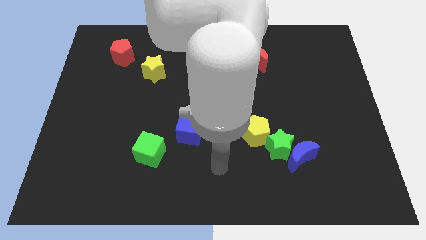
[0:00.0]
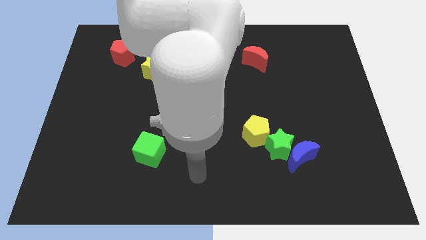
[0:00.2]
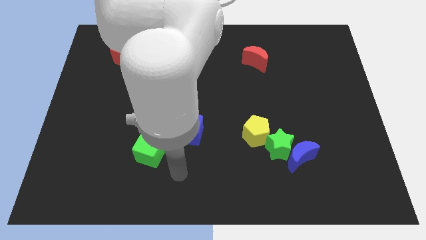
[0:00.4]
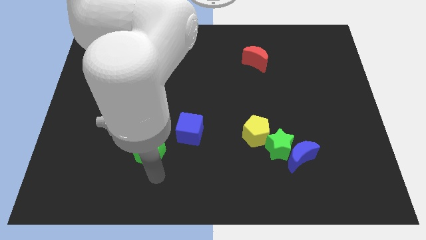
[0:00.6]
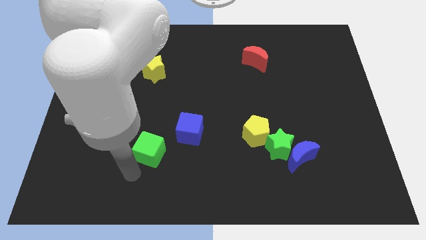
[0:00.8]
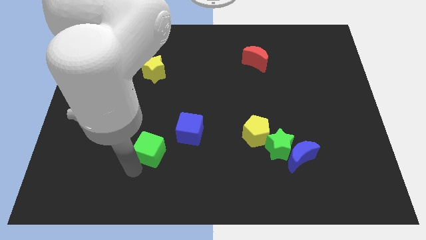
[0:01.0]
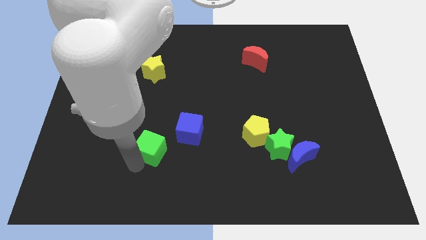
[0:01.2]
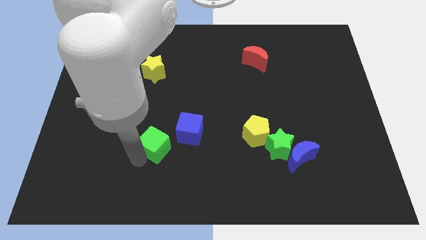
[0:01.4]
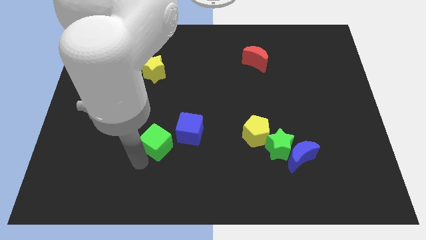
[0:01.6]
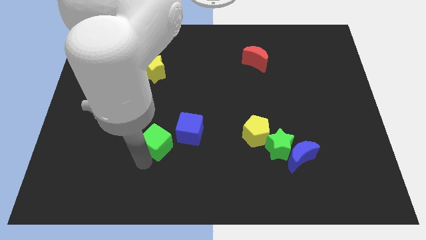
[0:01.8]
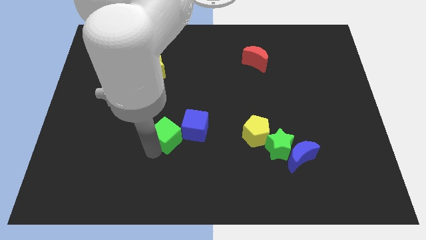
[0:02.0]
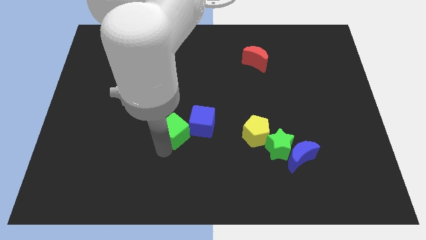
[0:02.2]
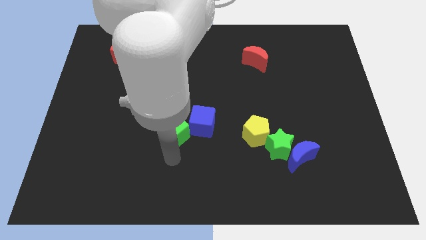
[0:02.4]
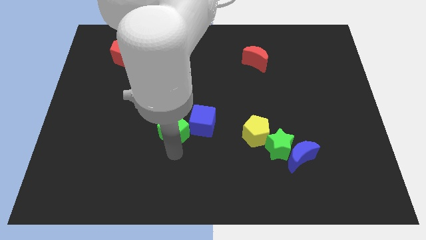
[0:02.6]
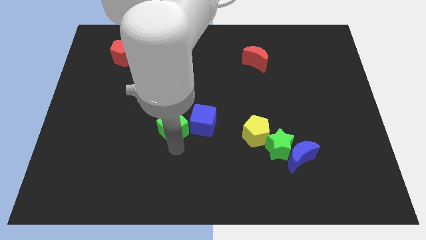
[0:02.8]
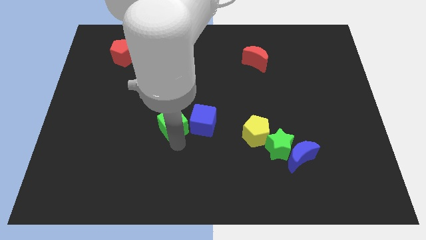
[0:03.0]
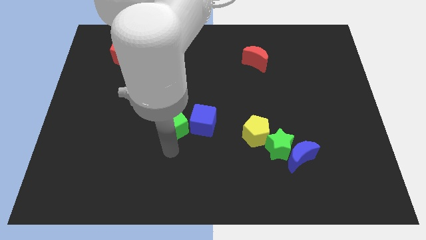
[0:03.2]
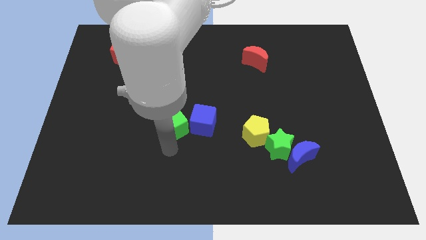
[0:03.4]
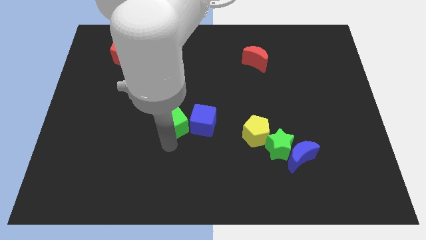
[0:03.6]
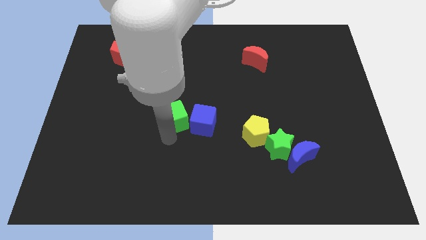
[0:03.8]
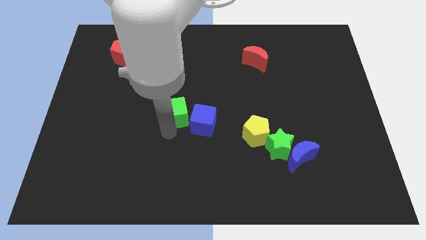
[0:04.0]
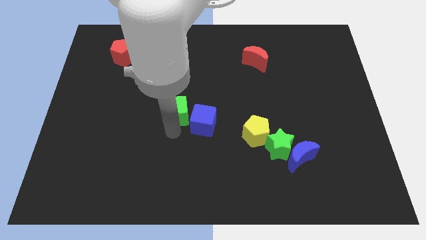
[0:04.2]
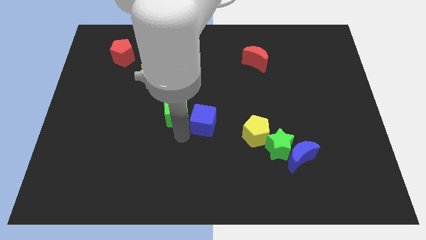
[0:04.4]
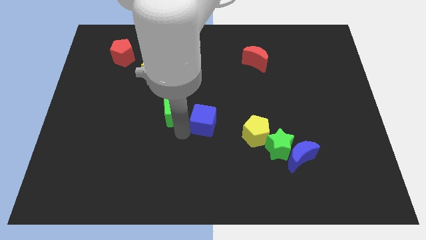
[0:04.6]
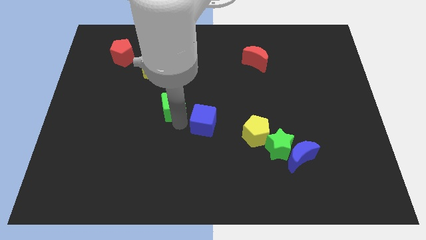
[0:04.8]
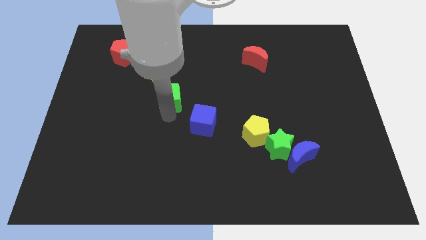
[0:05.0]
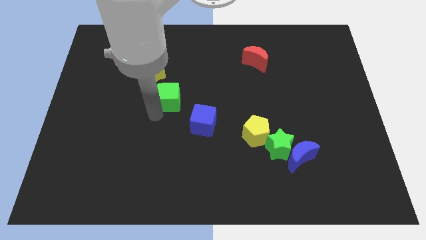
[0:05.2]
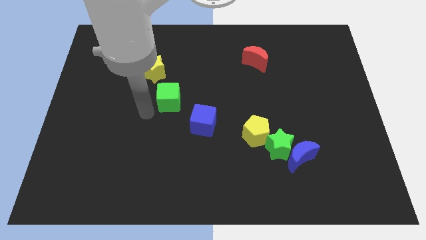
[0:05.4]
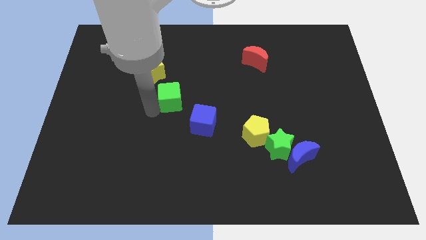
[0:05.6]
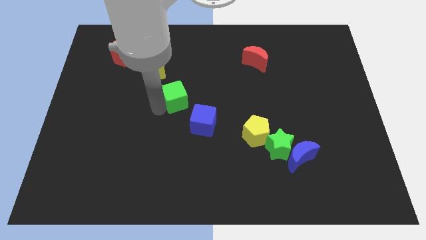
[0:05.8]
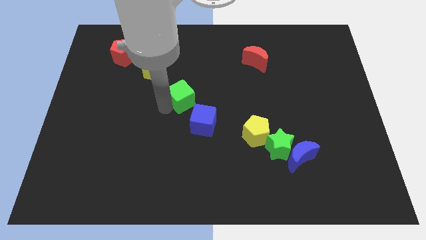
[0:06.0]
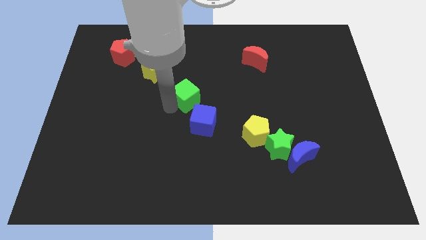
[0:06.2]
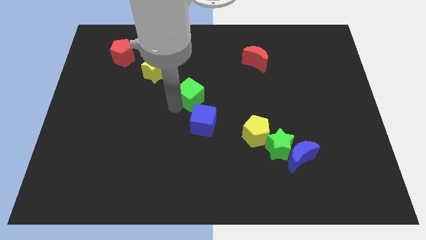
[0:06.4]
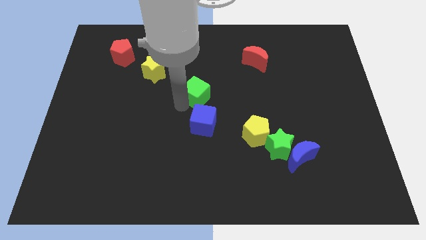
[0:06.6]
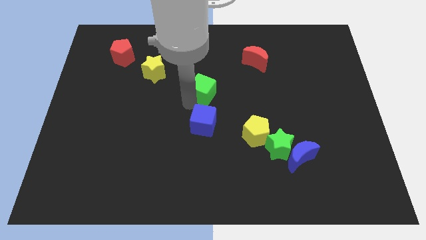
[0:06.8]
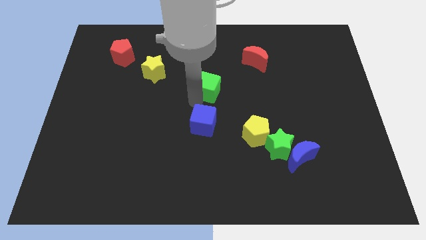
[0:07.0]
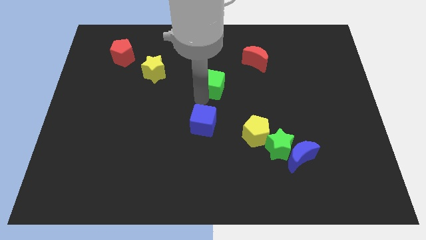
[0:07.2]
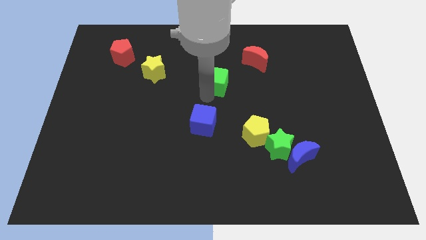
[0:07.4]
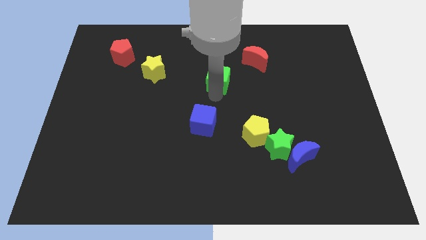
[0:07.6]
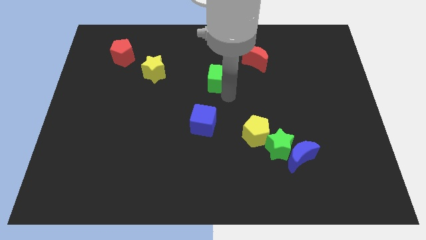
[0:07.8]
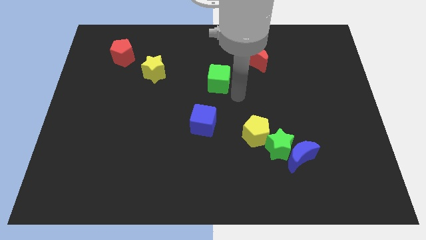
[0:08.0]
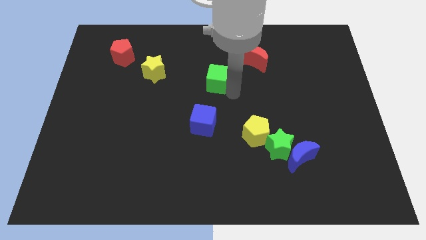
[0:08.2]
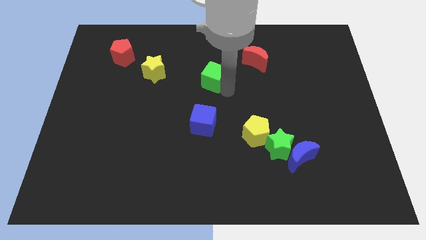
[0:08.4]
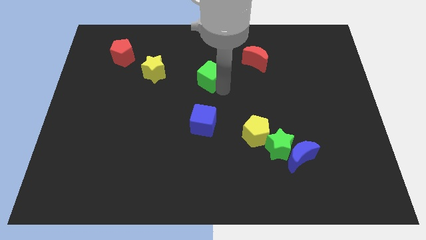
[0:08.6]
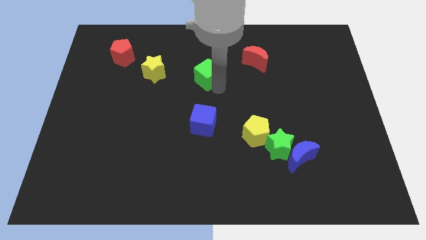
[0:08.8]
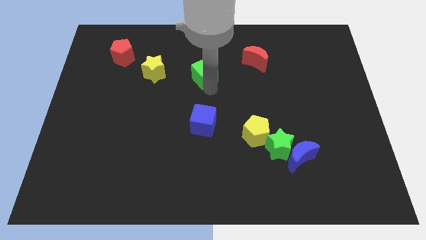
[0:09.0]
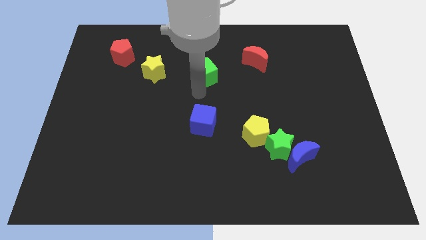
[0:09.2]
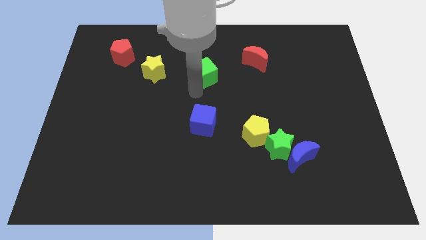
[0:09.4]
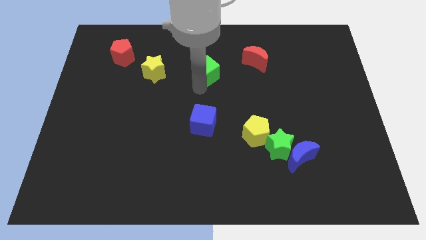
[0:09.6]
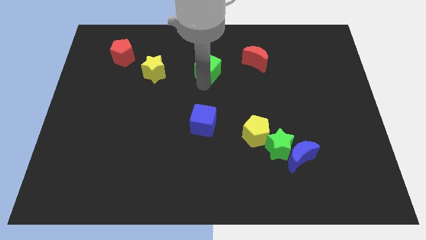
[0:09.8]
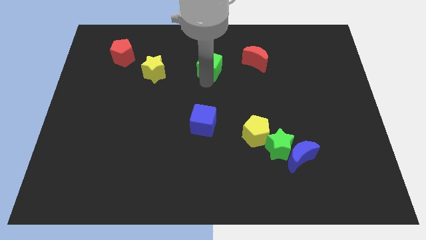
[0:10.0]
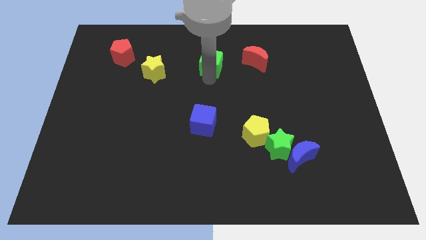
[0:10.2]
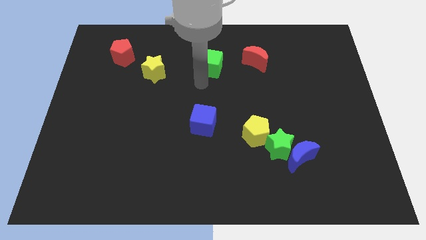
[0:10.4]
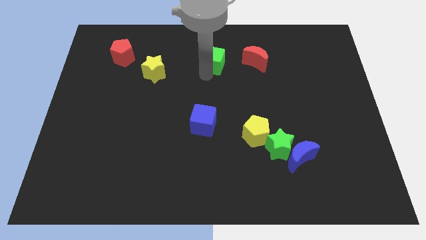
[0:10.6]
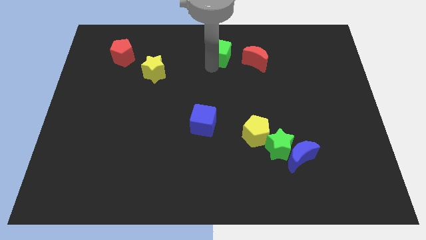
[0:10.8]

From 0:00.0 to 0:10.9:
slide the green cube to the top side
